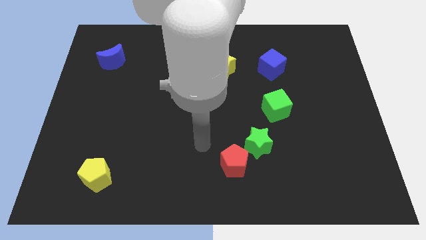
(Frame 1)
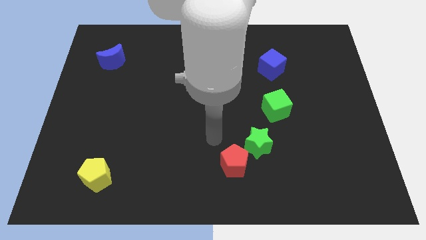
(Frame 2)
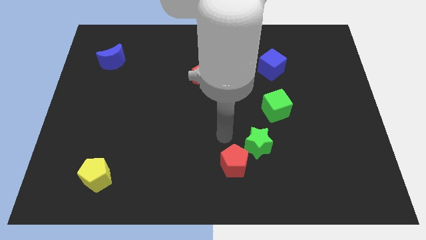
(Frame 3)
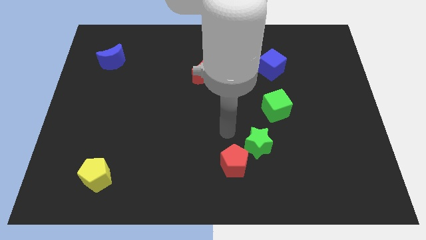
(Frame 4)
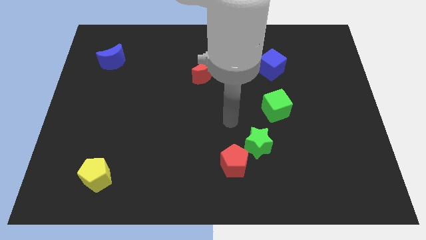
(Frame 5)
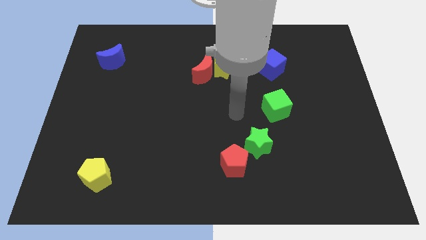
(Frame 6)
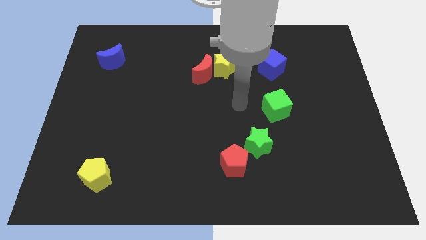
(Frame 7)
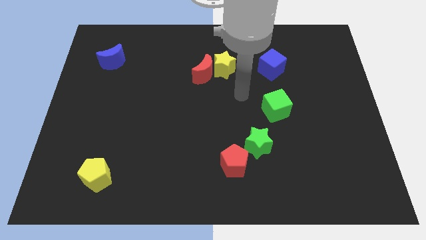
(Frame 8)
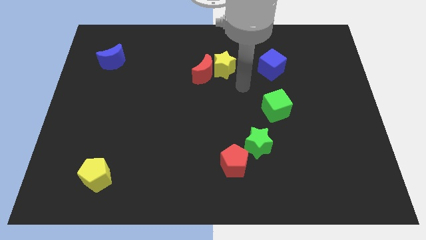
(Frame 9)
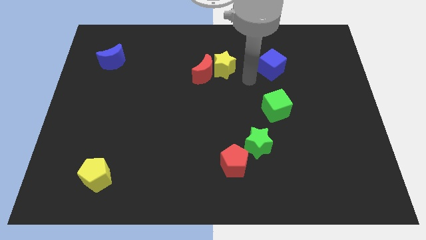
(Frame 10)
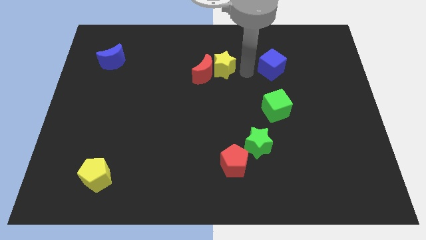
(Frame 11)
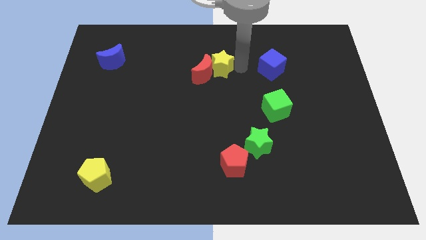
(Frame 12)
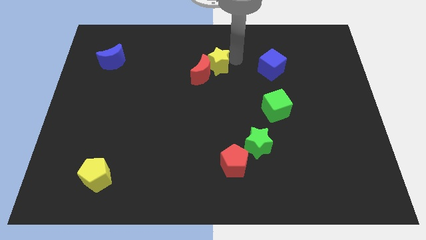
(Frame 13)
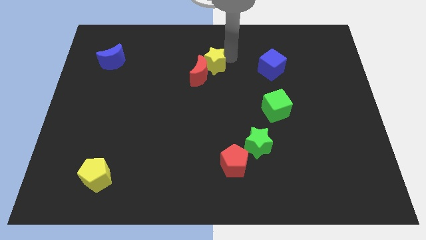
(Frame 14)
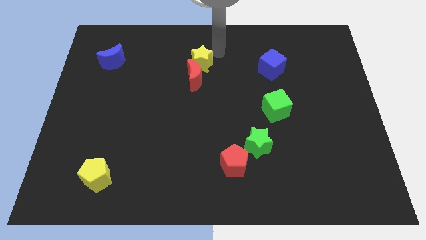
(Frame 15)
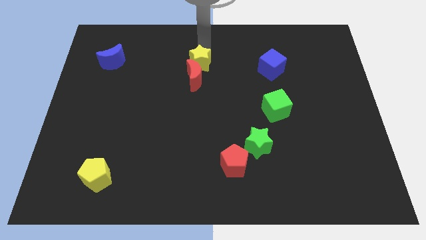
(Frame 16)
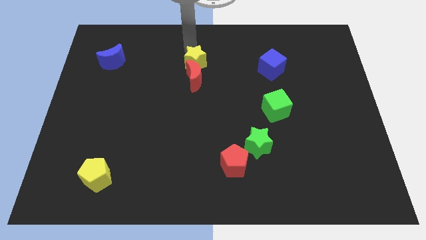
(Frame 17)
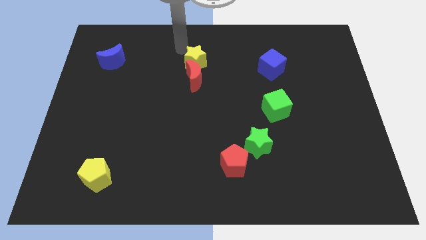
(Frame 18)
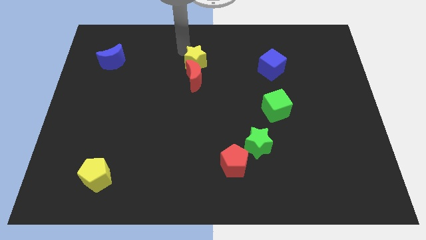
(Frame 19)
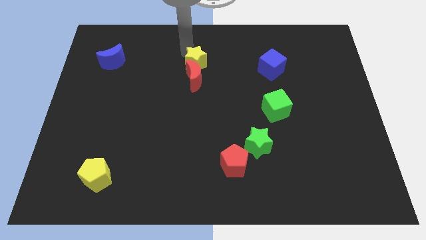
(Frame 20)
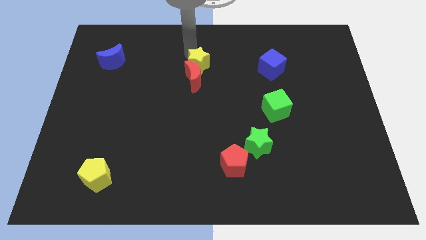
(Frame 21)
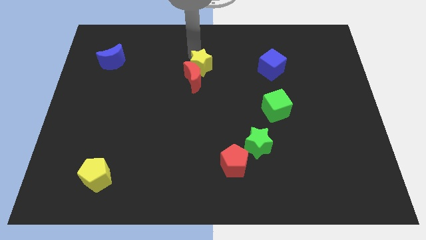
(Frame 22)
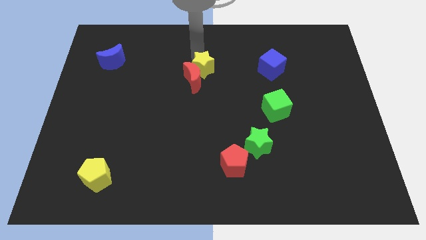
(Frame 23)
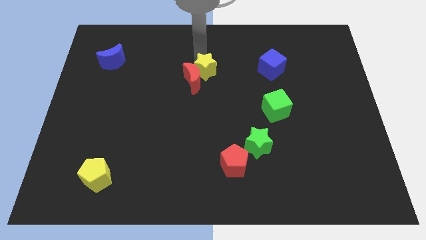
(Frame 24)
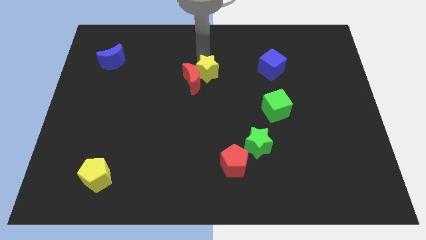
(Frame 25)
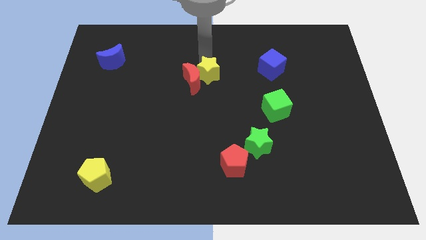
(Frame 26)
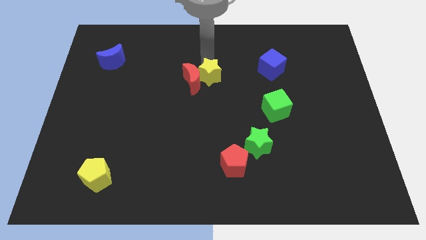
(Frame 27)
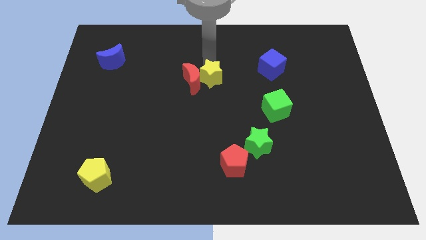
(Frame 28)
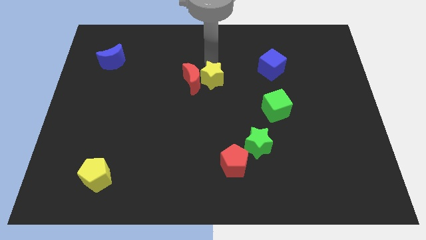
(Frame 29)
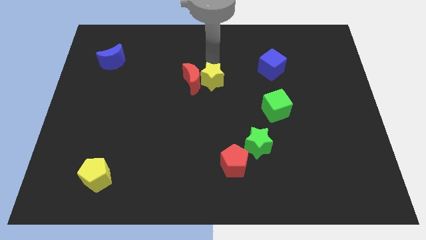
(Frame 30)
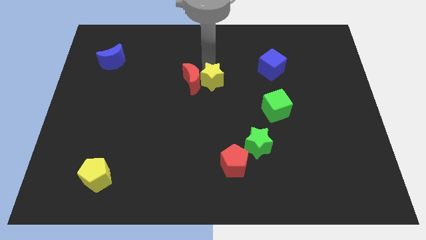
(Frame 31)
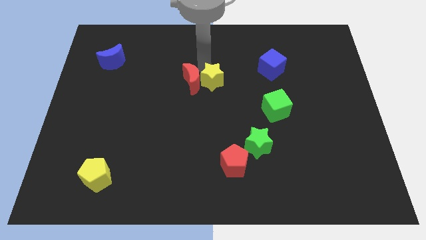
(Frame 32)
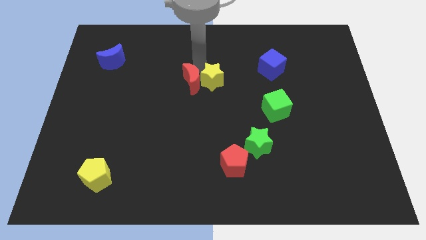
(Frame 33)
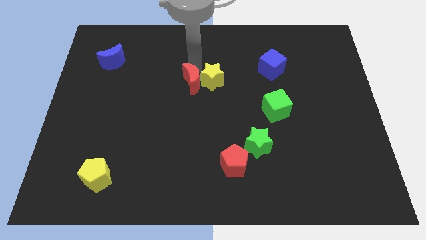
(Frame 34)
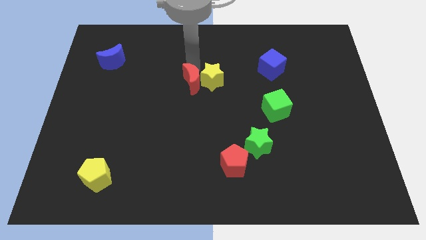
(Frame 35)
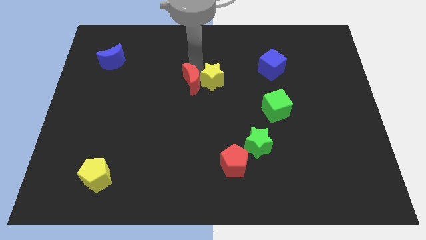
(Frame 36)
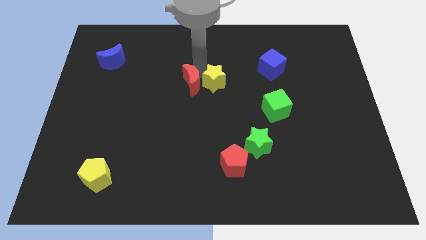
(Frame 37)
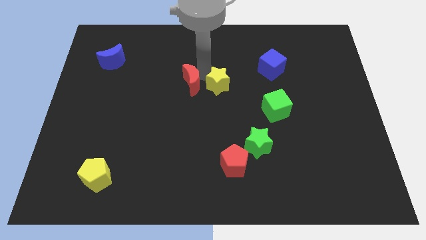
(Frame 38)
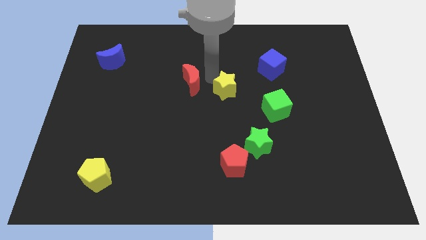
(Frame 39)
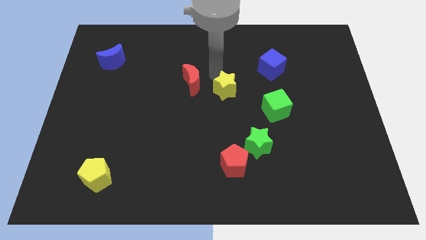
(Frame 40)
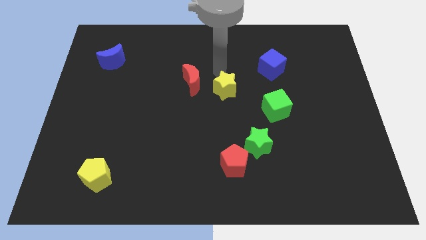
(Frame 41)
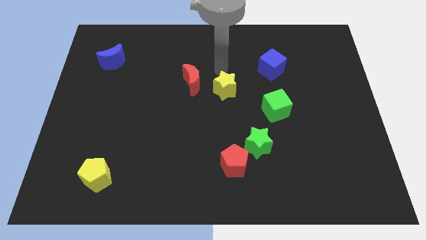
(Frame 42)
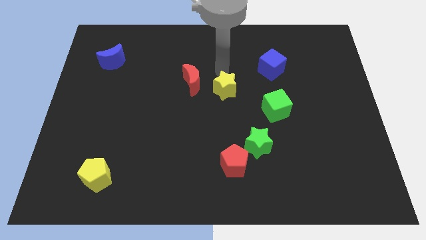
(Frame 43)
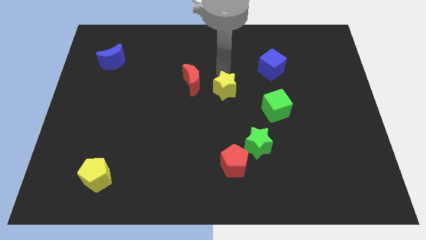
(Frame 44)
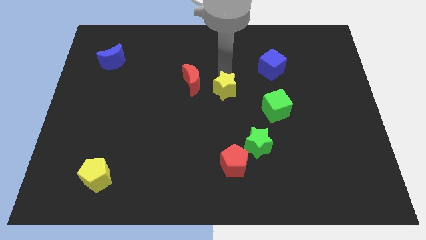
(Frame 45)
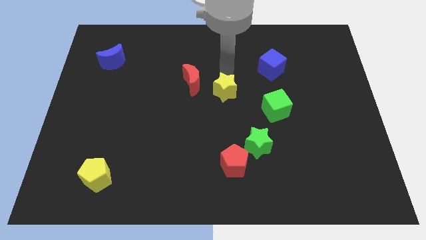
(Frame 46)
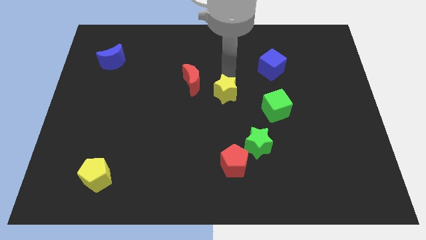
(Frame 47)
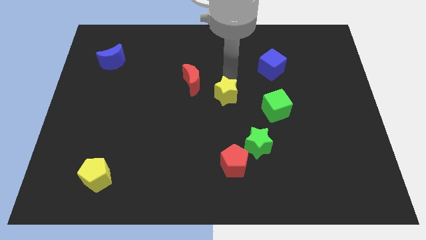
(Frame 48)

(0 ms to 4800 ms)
put the yellow star left of the green cube

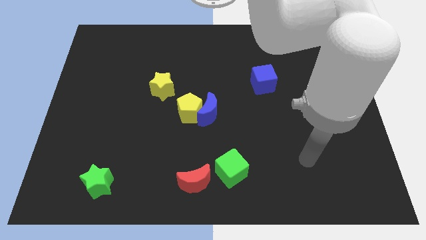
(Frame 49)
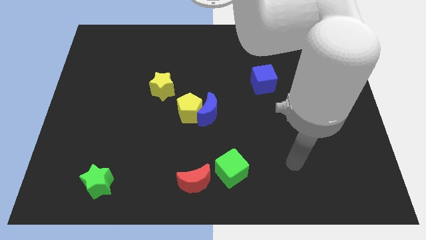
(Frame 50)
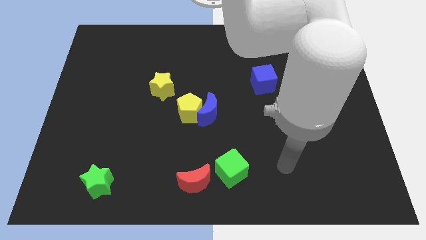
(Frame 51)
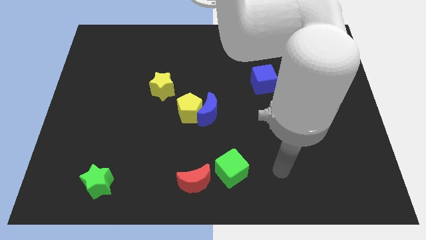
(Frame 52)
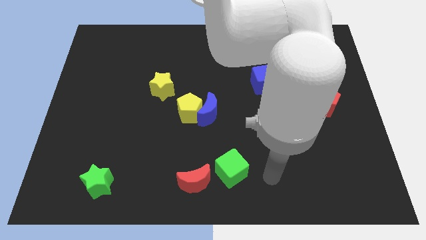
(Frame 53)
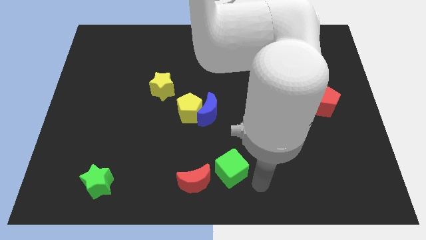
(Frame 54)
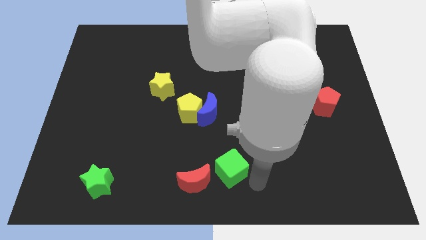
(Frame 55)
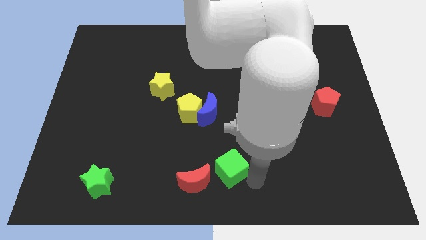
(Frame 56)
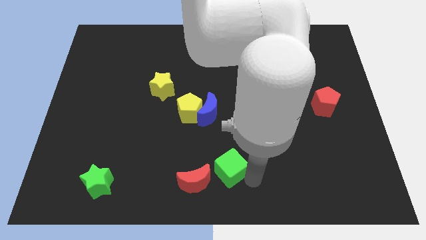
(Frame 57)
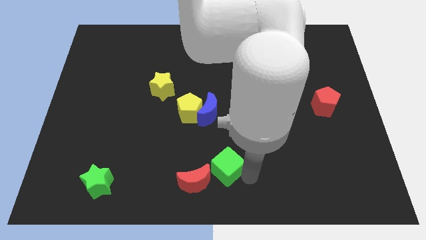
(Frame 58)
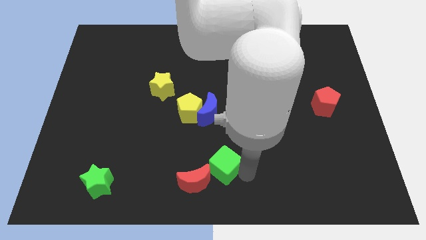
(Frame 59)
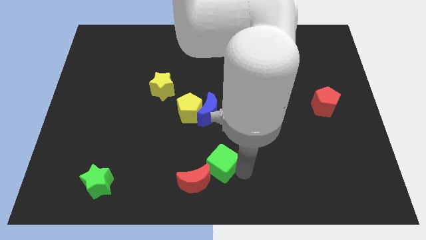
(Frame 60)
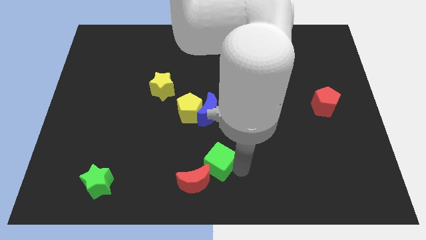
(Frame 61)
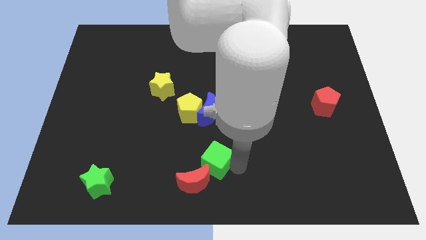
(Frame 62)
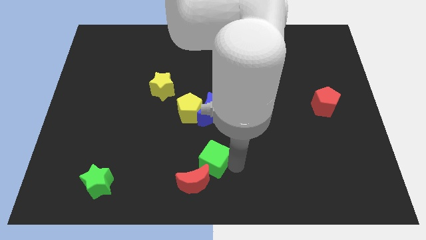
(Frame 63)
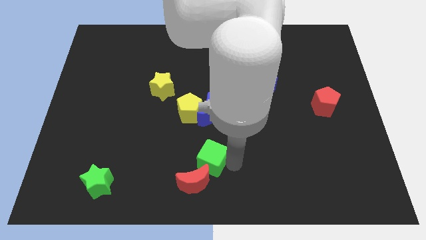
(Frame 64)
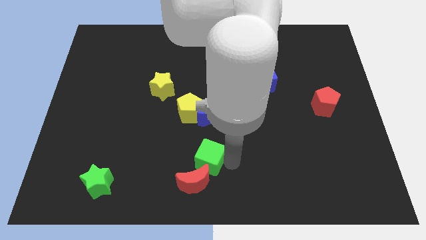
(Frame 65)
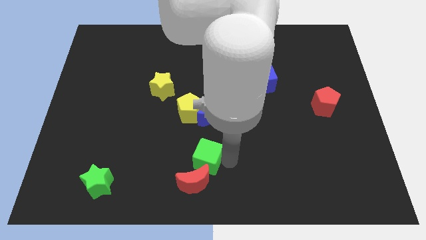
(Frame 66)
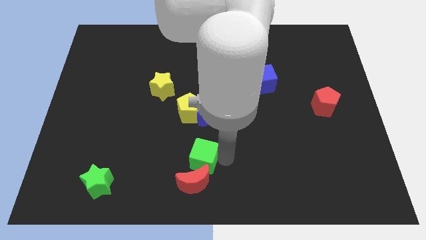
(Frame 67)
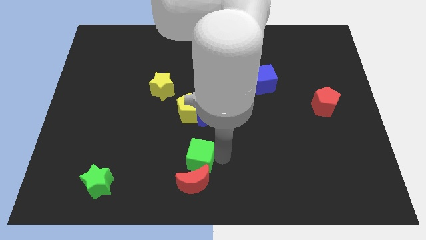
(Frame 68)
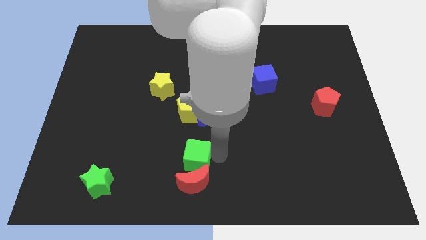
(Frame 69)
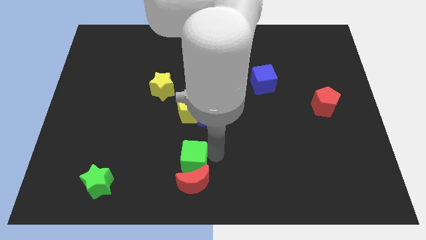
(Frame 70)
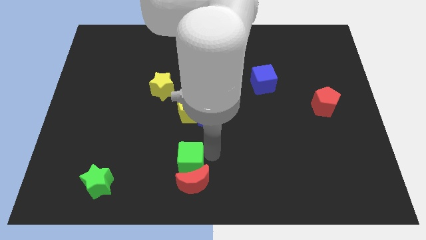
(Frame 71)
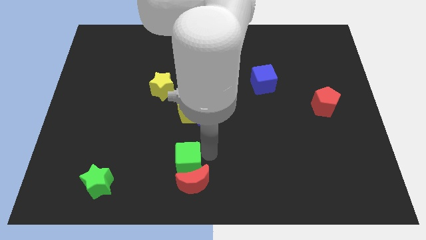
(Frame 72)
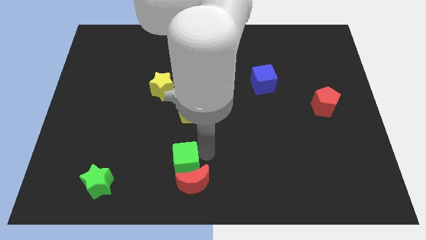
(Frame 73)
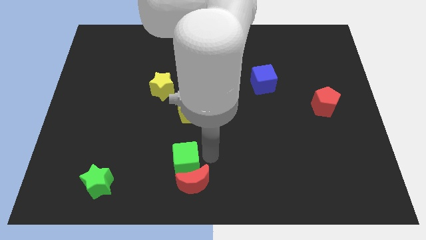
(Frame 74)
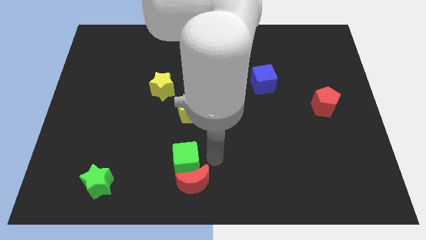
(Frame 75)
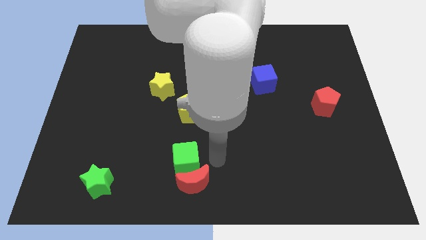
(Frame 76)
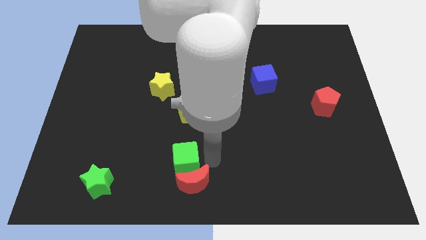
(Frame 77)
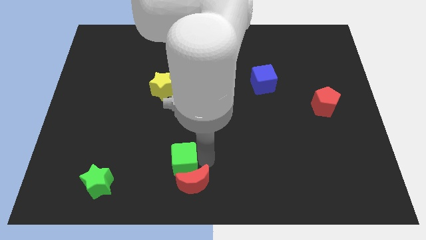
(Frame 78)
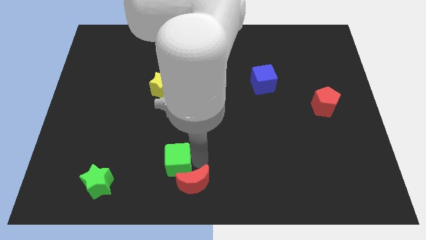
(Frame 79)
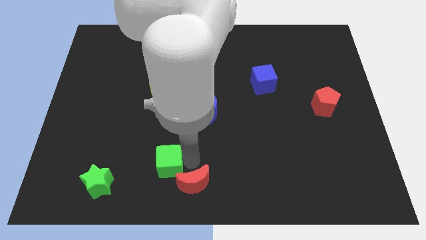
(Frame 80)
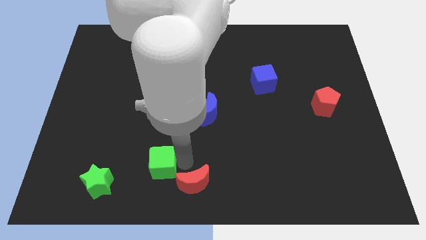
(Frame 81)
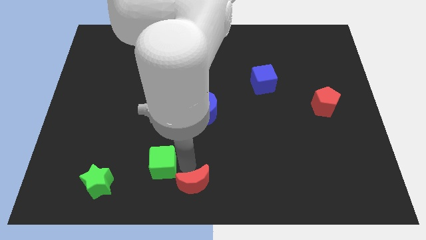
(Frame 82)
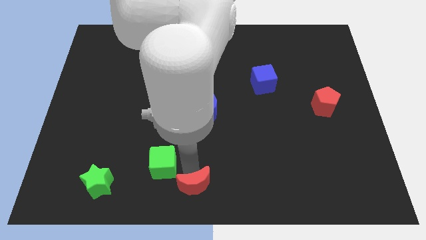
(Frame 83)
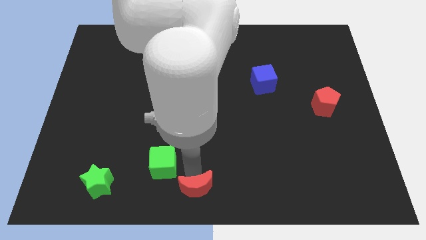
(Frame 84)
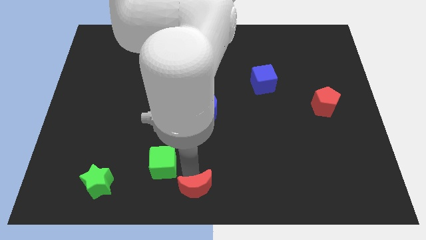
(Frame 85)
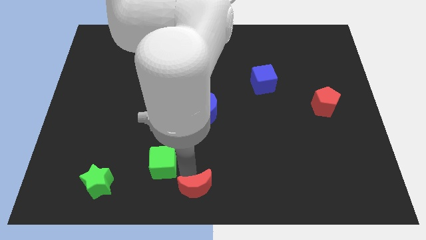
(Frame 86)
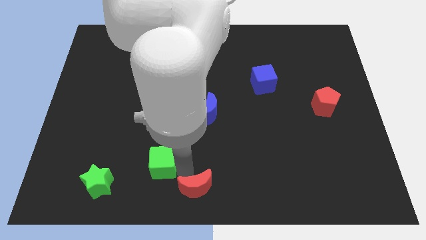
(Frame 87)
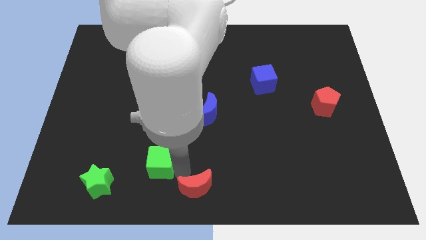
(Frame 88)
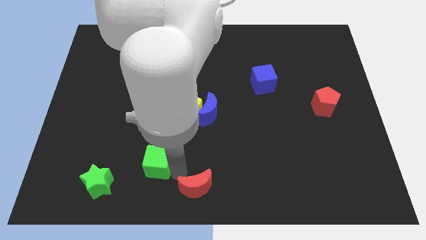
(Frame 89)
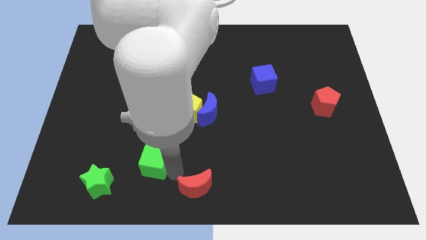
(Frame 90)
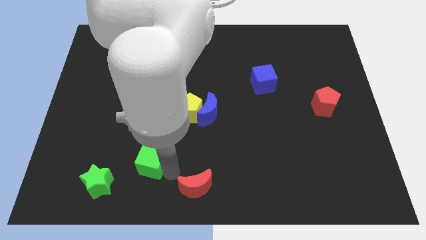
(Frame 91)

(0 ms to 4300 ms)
put the green cube to the top right of the green star
